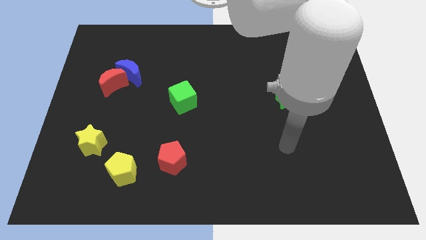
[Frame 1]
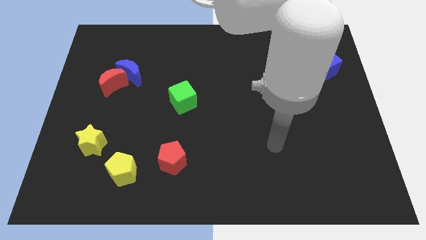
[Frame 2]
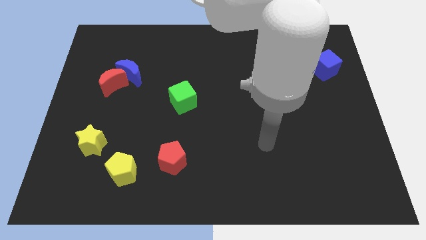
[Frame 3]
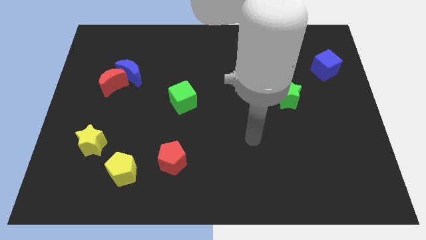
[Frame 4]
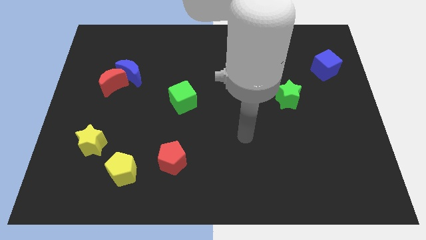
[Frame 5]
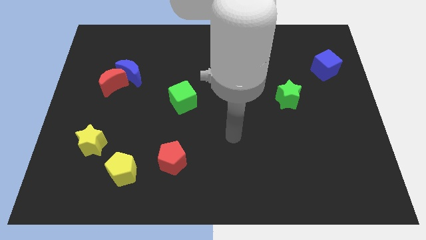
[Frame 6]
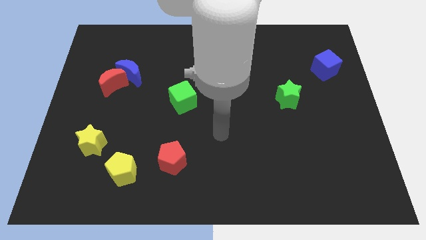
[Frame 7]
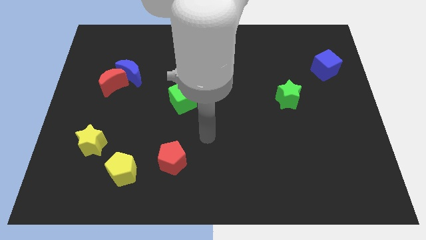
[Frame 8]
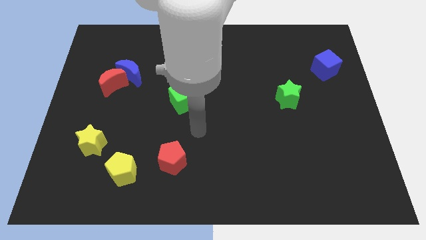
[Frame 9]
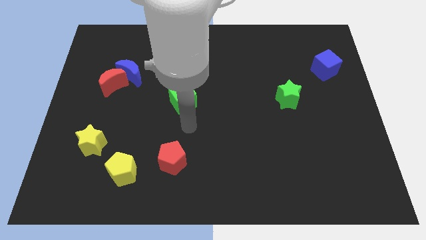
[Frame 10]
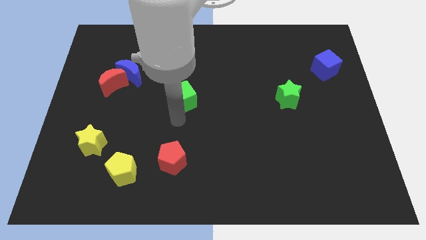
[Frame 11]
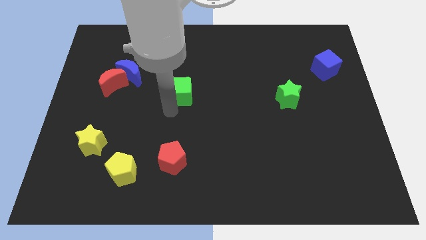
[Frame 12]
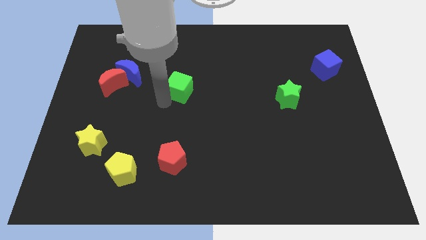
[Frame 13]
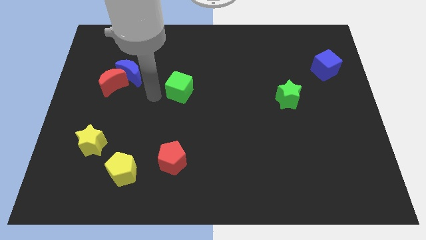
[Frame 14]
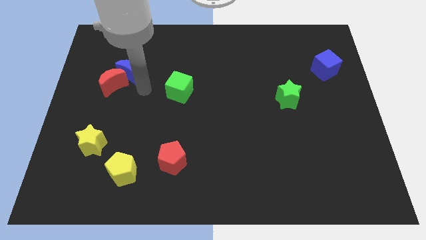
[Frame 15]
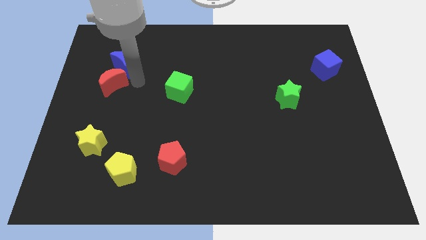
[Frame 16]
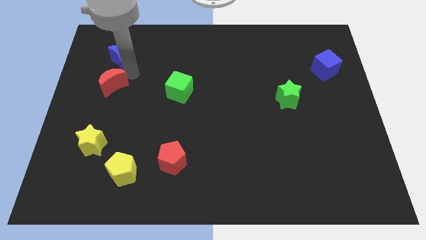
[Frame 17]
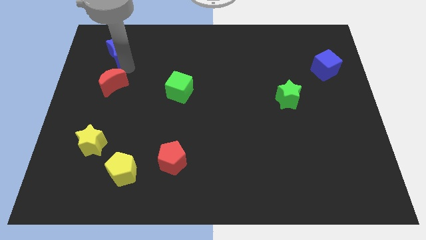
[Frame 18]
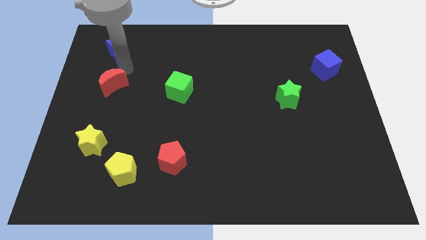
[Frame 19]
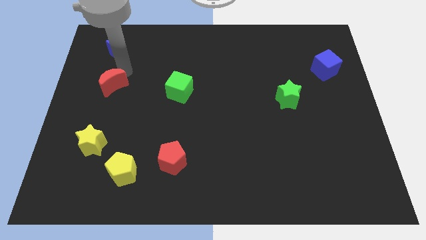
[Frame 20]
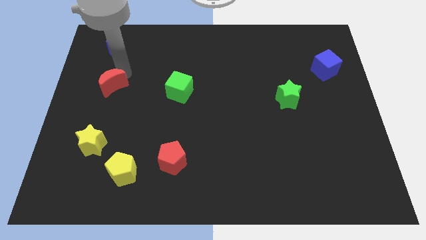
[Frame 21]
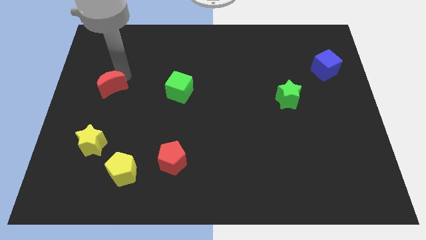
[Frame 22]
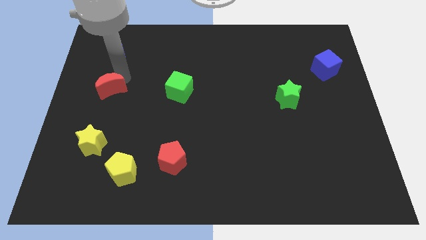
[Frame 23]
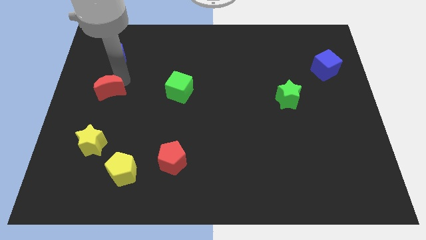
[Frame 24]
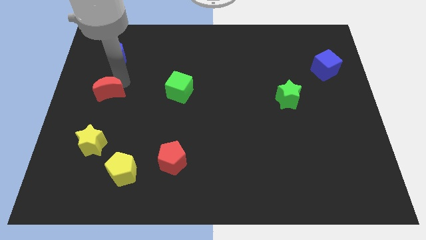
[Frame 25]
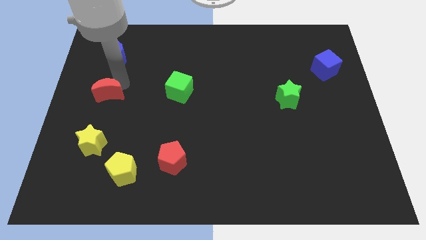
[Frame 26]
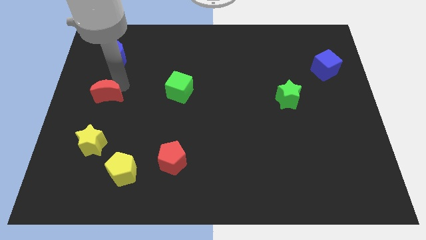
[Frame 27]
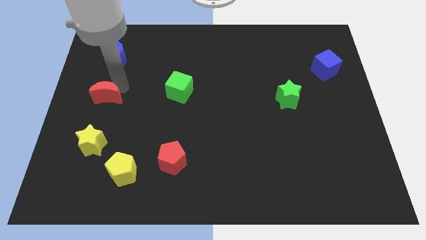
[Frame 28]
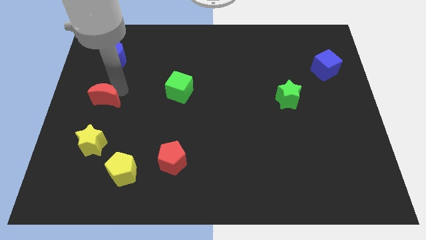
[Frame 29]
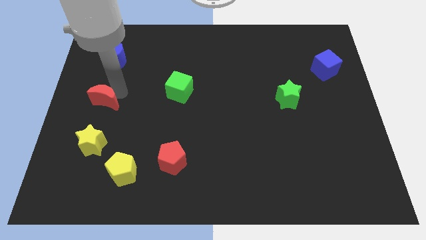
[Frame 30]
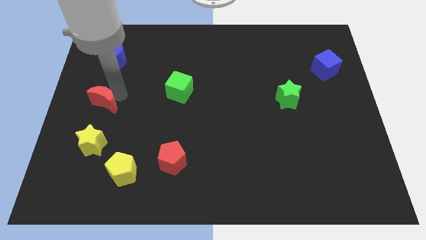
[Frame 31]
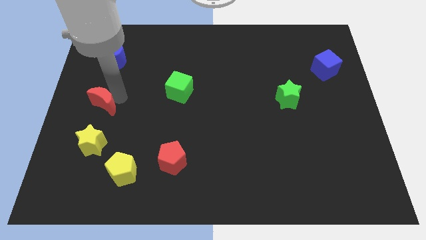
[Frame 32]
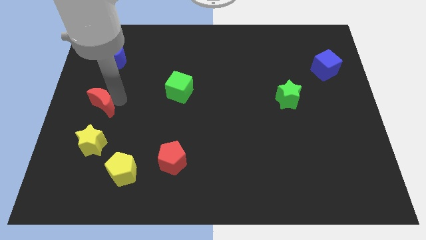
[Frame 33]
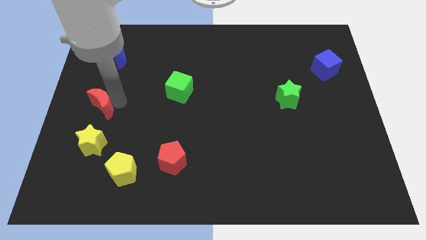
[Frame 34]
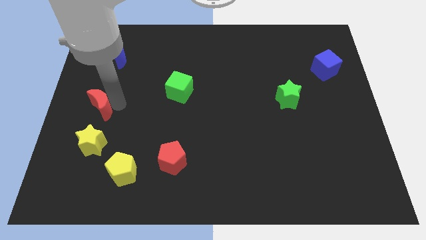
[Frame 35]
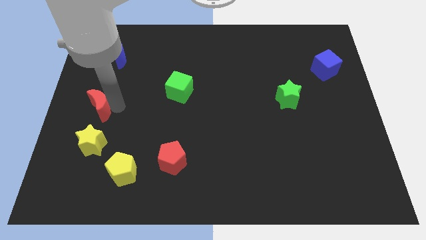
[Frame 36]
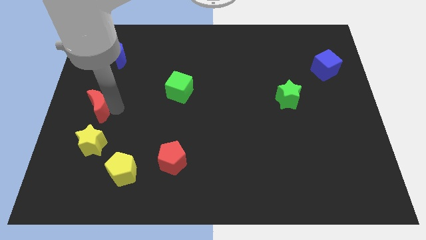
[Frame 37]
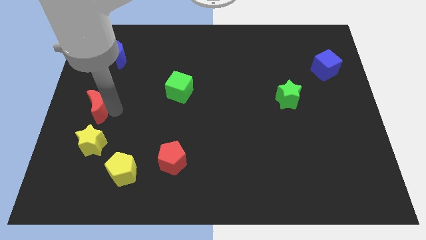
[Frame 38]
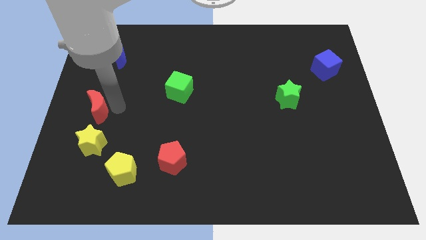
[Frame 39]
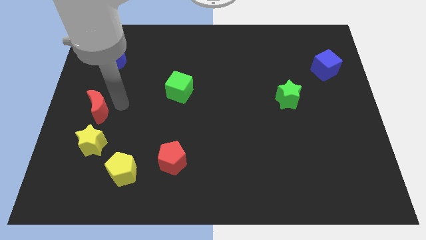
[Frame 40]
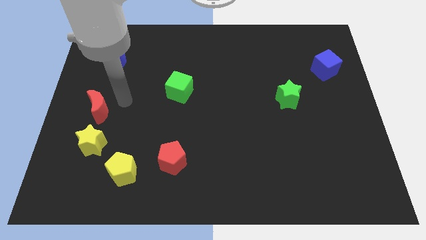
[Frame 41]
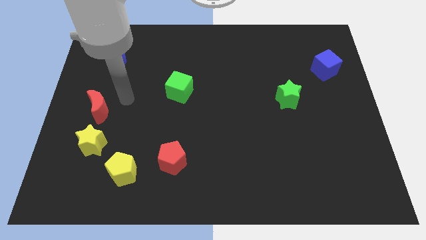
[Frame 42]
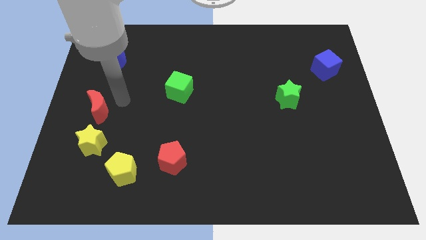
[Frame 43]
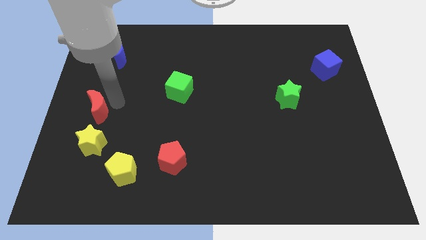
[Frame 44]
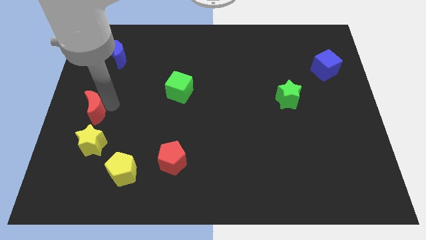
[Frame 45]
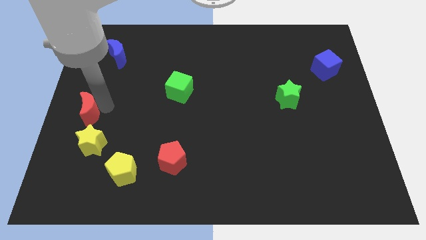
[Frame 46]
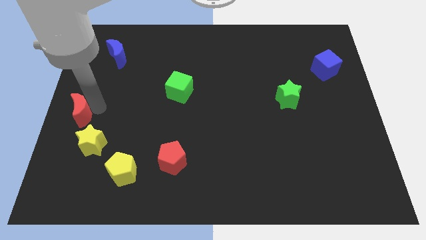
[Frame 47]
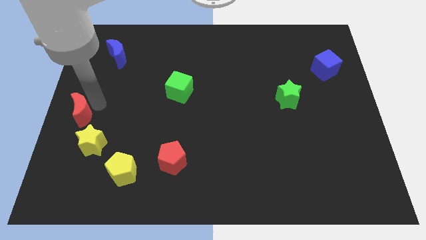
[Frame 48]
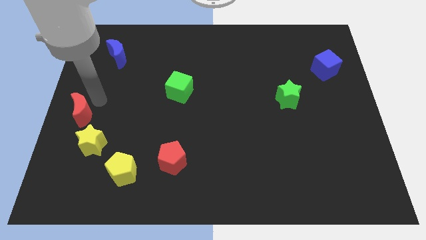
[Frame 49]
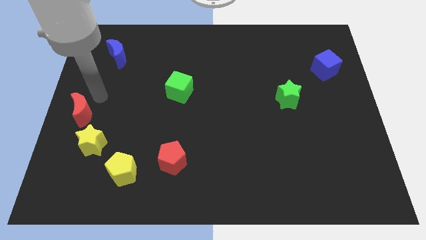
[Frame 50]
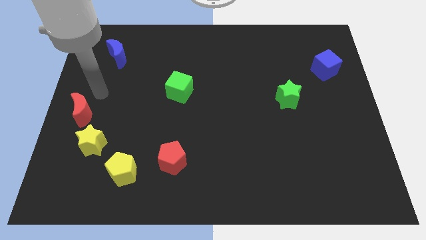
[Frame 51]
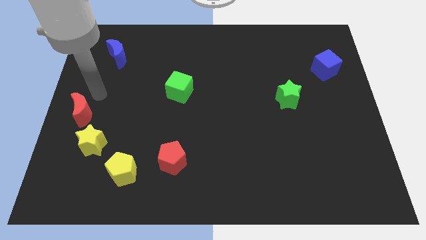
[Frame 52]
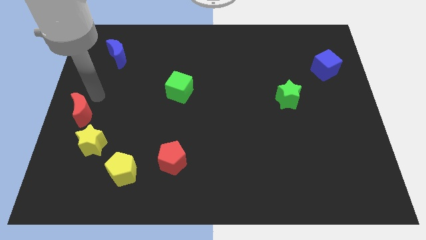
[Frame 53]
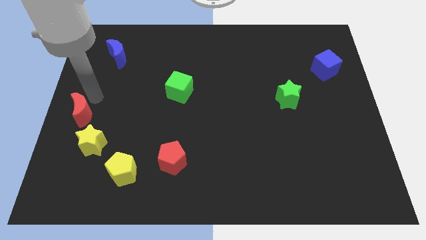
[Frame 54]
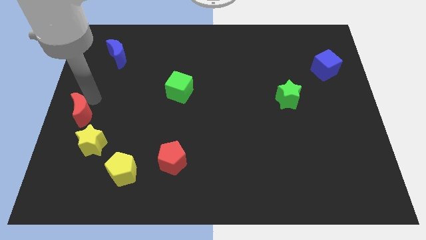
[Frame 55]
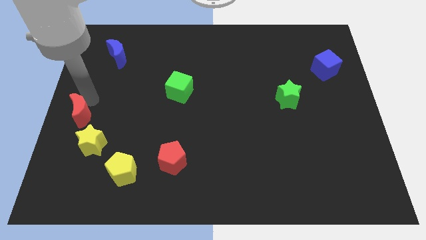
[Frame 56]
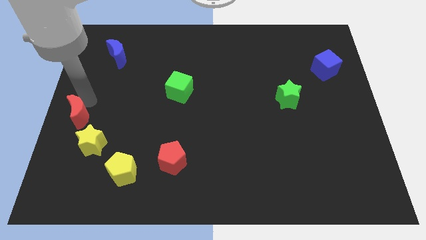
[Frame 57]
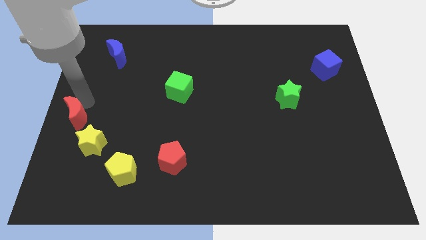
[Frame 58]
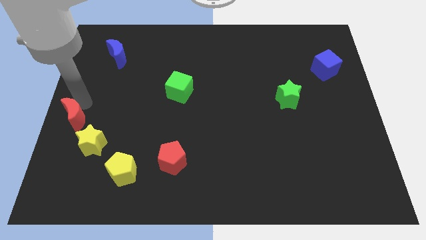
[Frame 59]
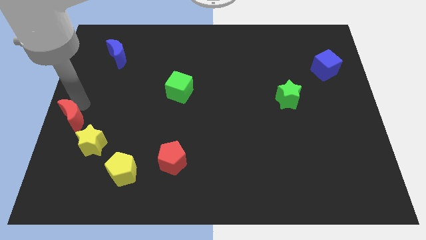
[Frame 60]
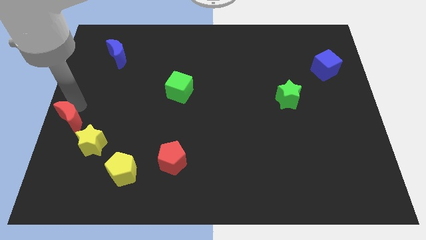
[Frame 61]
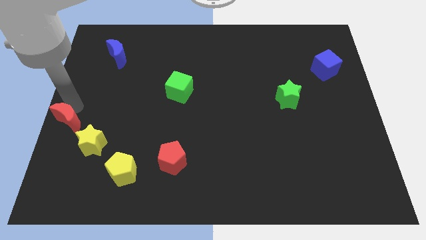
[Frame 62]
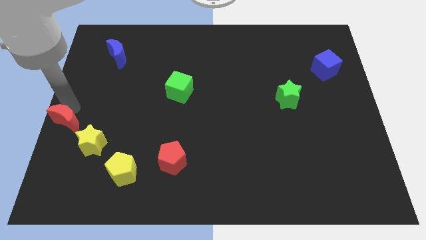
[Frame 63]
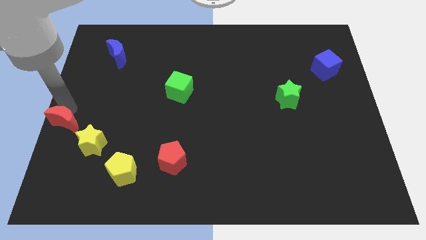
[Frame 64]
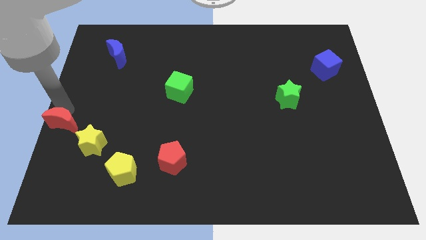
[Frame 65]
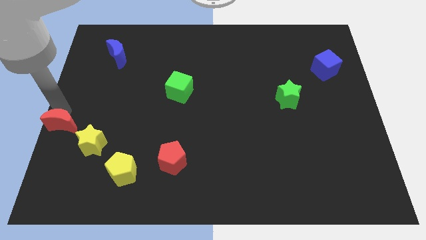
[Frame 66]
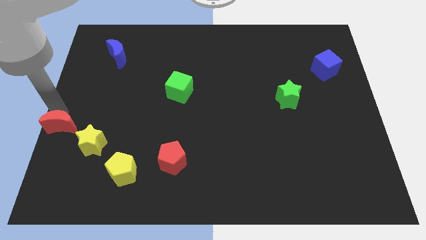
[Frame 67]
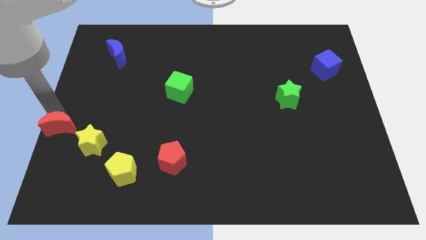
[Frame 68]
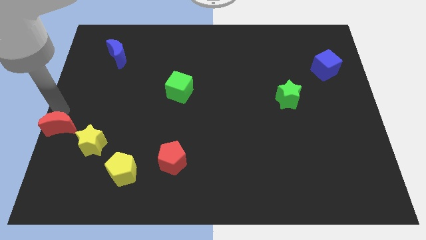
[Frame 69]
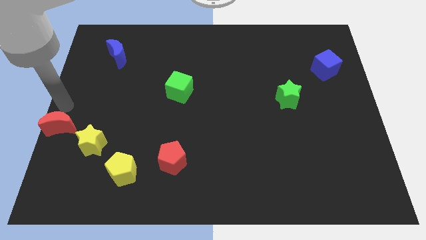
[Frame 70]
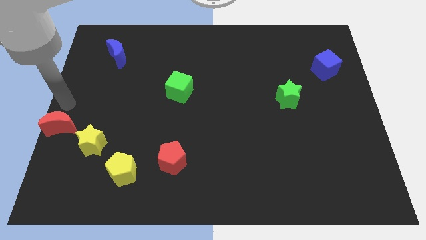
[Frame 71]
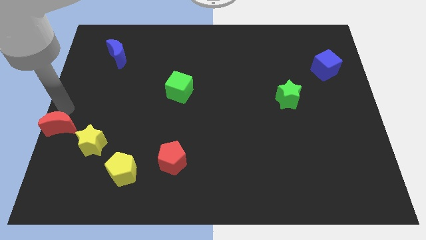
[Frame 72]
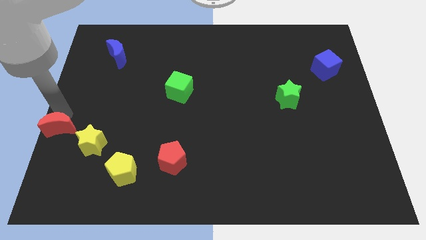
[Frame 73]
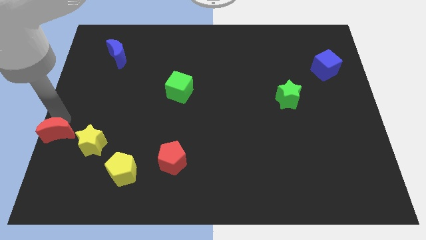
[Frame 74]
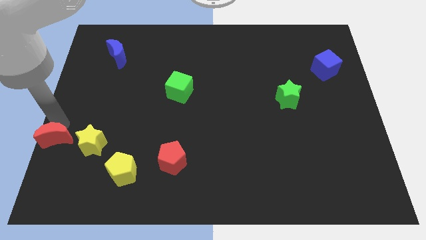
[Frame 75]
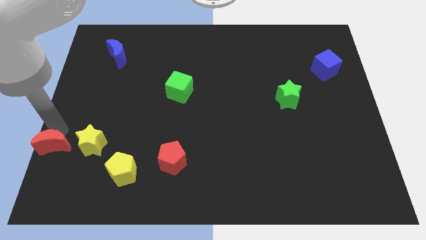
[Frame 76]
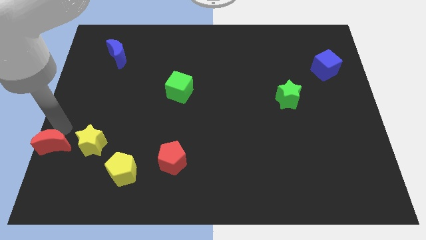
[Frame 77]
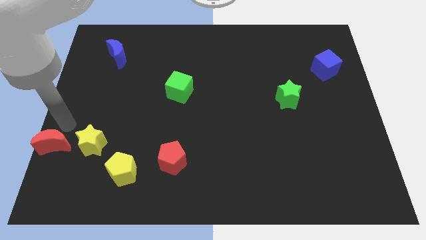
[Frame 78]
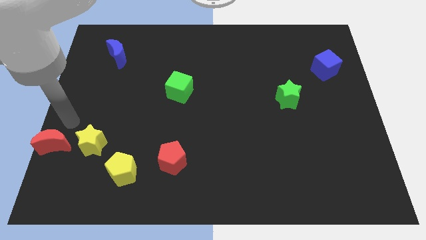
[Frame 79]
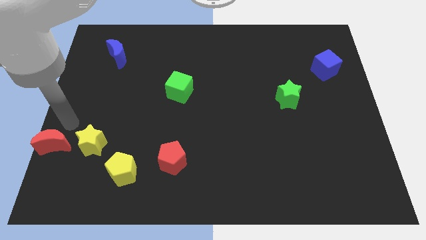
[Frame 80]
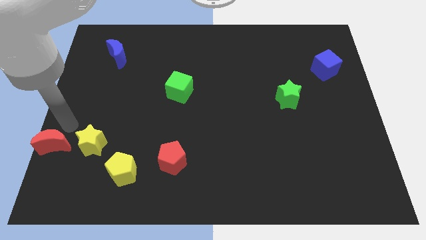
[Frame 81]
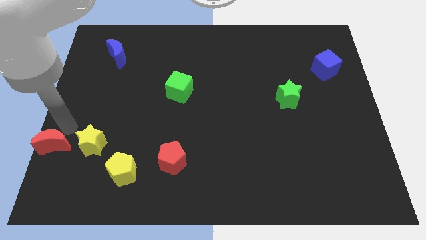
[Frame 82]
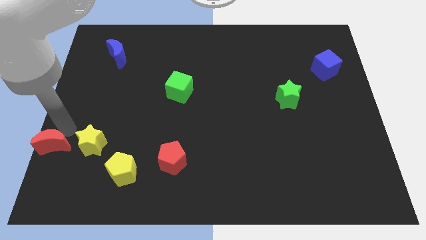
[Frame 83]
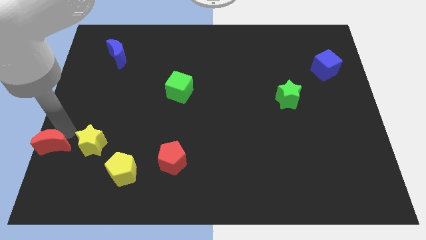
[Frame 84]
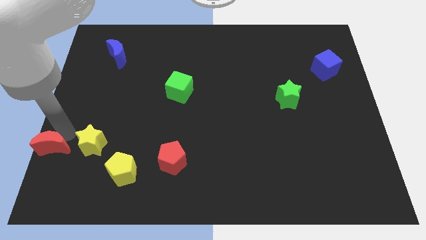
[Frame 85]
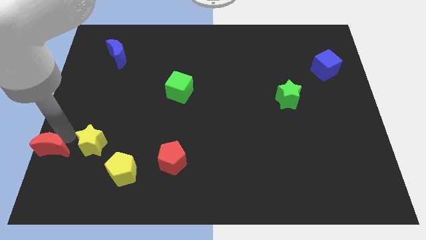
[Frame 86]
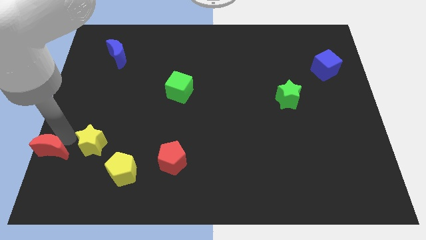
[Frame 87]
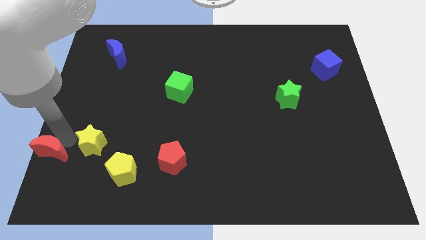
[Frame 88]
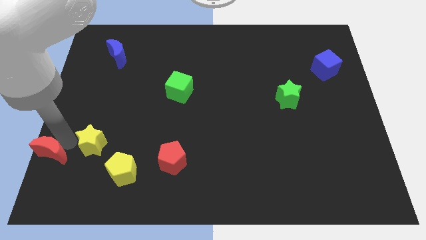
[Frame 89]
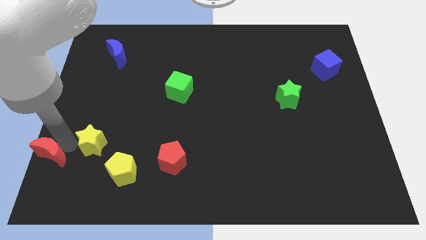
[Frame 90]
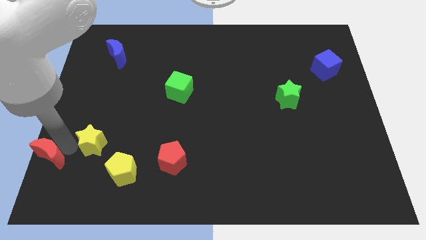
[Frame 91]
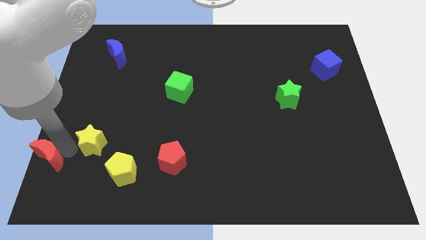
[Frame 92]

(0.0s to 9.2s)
push the red moon to the bottom left
